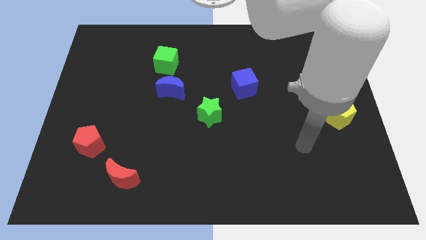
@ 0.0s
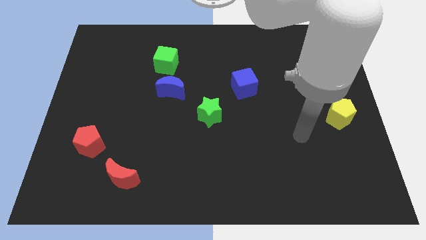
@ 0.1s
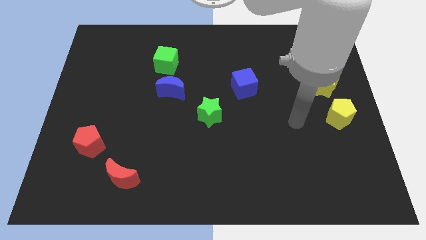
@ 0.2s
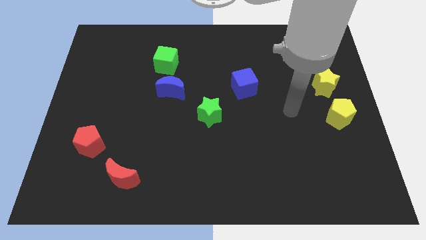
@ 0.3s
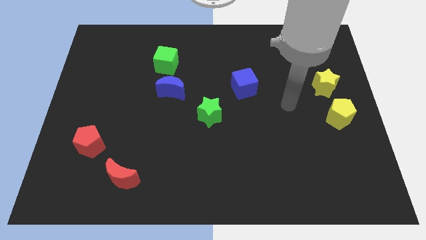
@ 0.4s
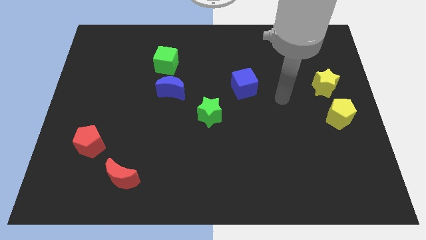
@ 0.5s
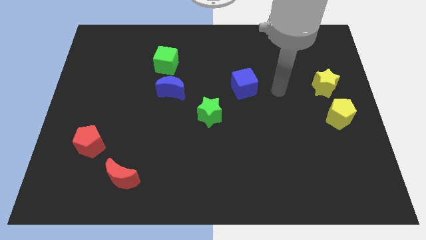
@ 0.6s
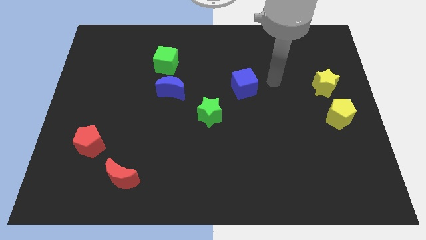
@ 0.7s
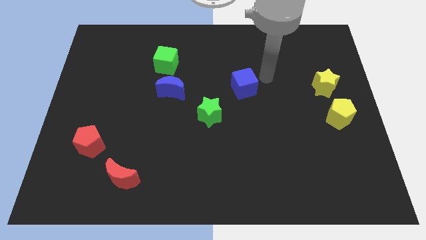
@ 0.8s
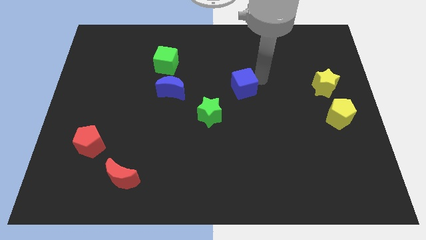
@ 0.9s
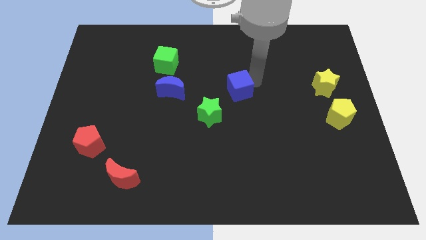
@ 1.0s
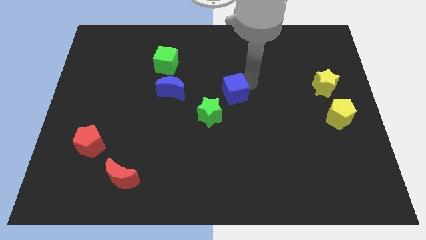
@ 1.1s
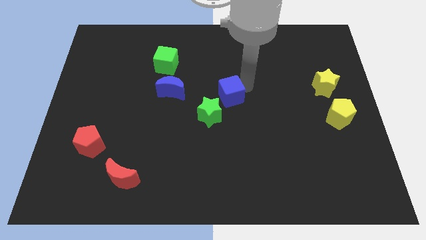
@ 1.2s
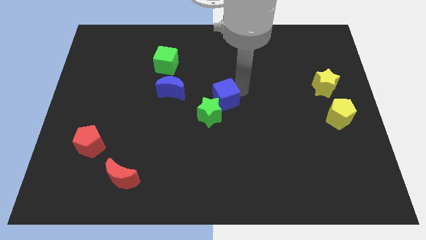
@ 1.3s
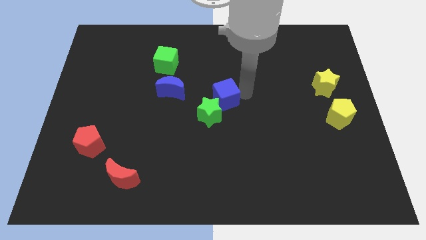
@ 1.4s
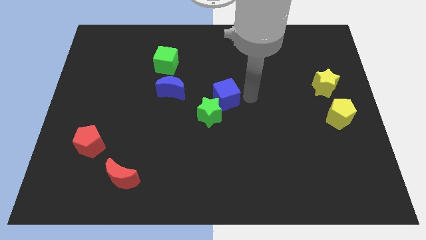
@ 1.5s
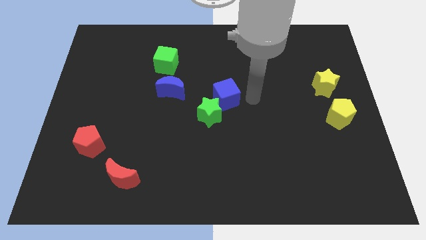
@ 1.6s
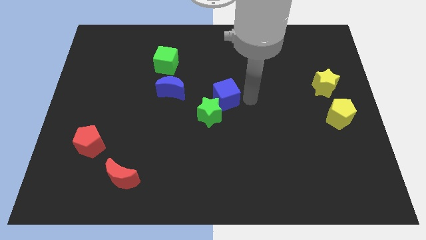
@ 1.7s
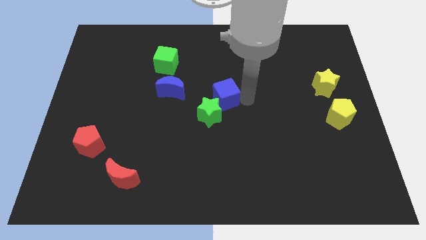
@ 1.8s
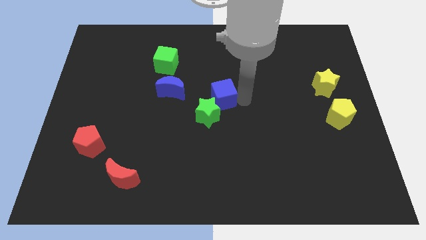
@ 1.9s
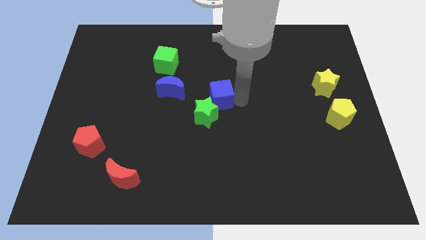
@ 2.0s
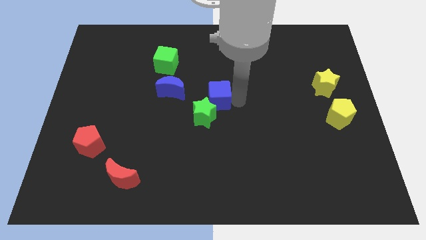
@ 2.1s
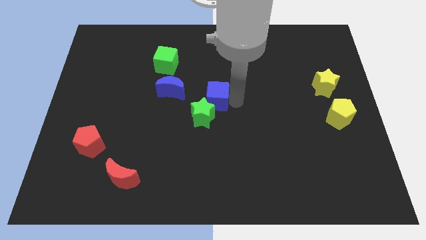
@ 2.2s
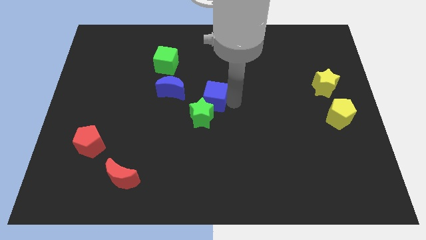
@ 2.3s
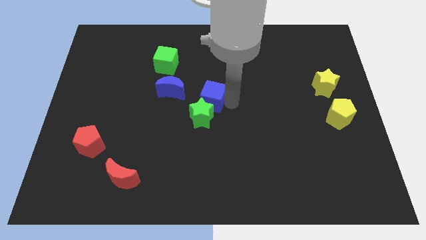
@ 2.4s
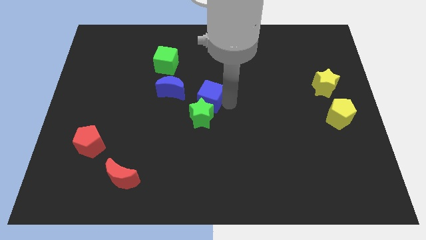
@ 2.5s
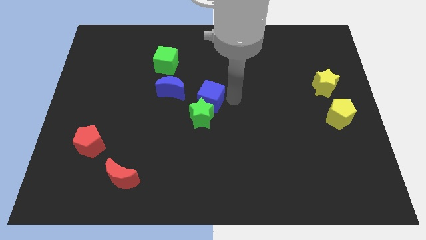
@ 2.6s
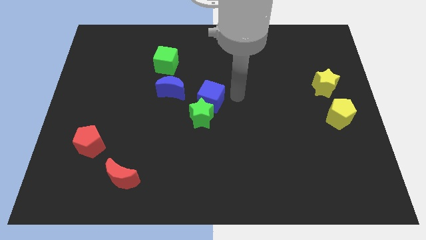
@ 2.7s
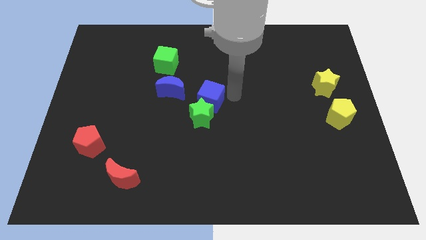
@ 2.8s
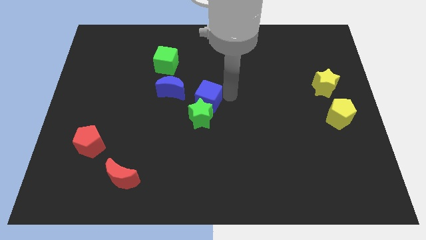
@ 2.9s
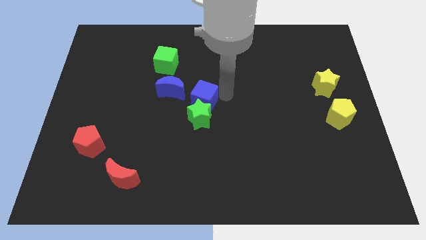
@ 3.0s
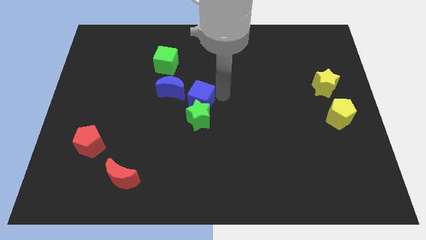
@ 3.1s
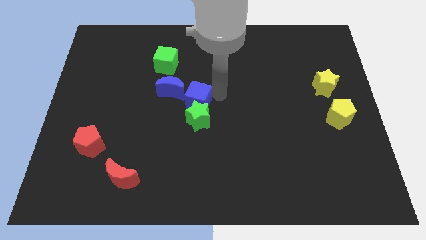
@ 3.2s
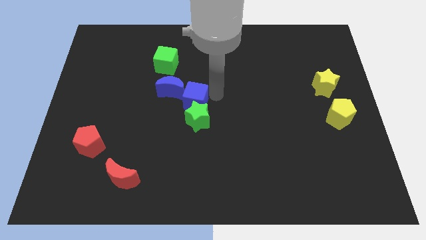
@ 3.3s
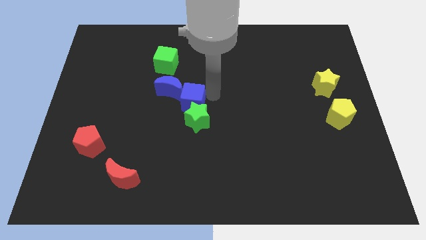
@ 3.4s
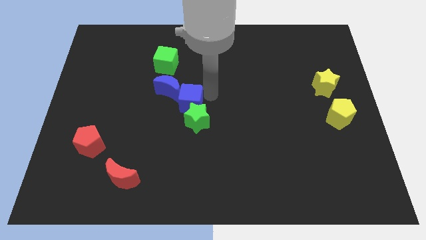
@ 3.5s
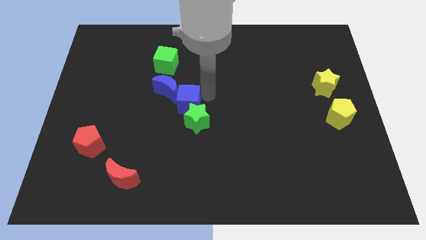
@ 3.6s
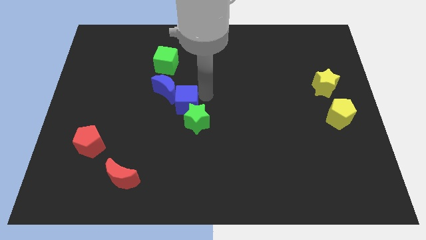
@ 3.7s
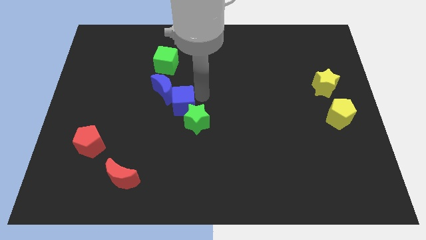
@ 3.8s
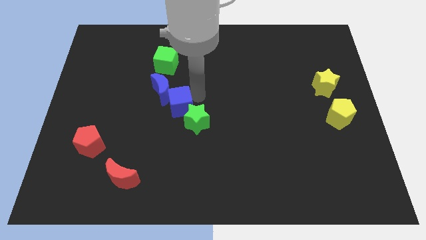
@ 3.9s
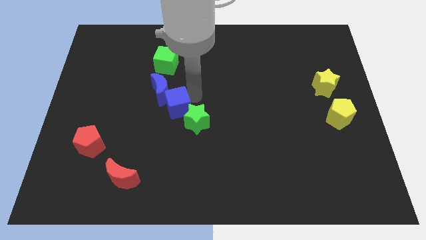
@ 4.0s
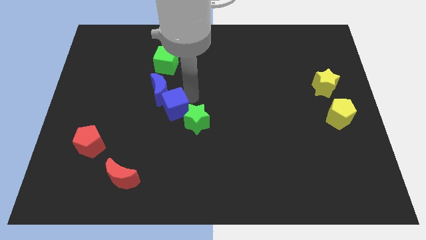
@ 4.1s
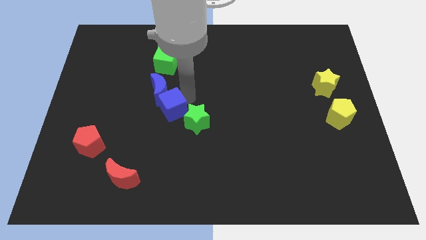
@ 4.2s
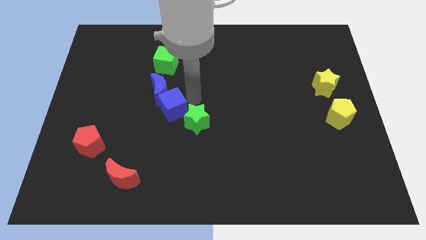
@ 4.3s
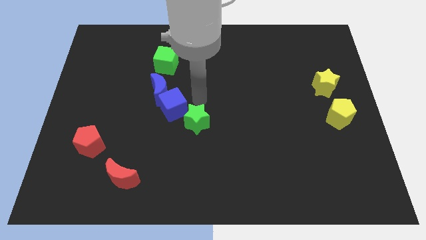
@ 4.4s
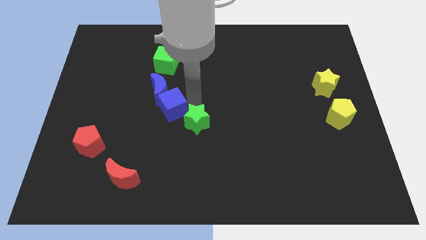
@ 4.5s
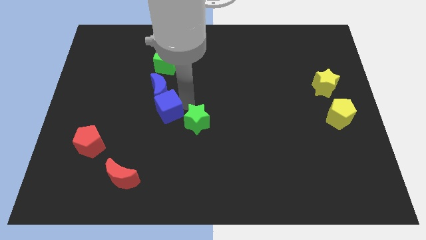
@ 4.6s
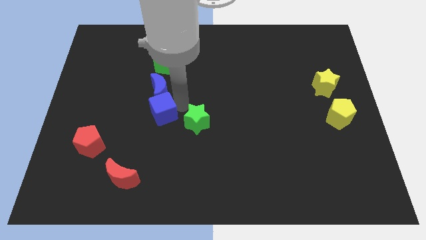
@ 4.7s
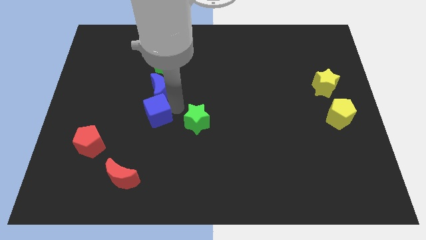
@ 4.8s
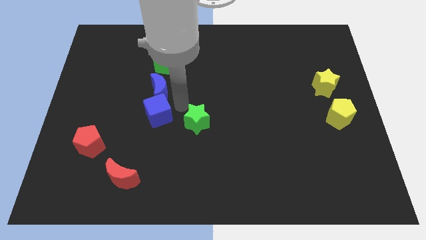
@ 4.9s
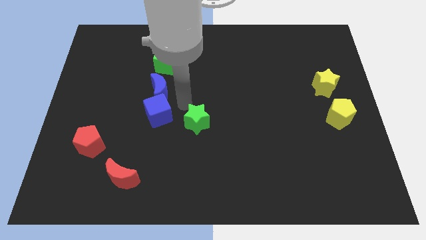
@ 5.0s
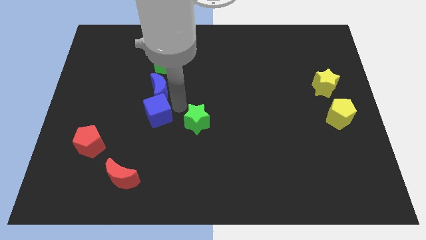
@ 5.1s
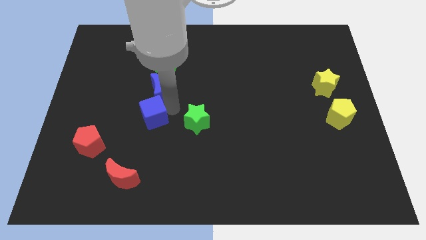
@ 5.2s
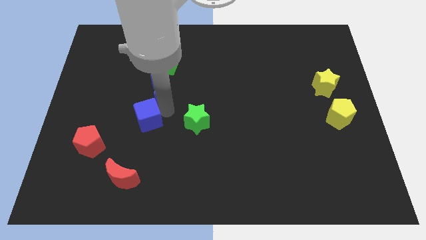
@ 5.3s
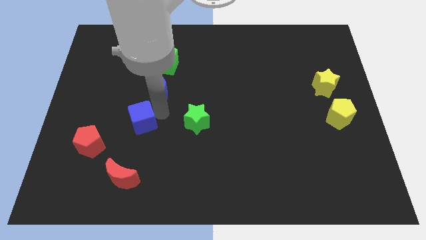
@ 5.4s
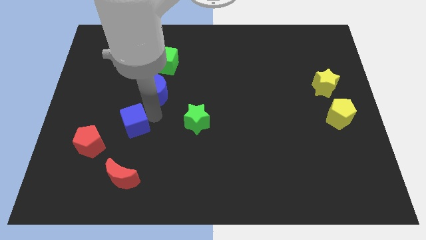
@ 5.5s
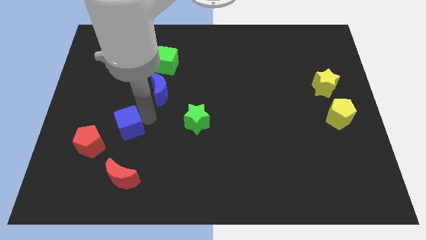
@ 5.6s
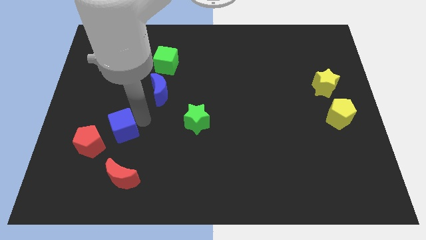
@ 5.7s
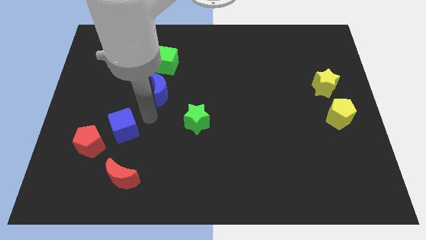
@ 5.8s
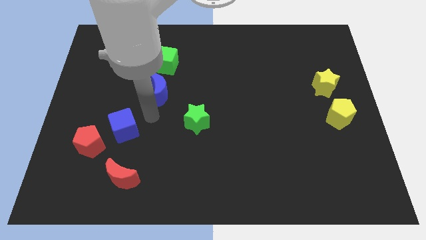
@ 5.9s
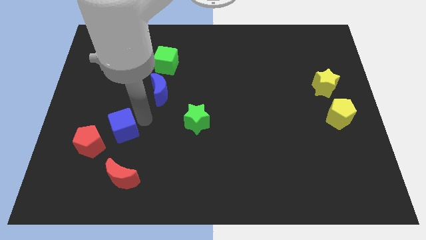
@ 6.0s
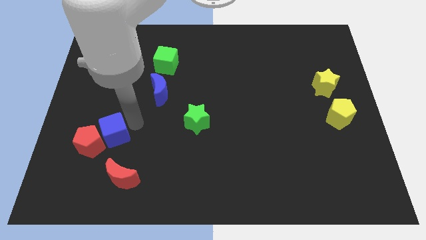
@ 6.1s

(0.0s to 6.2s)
slide the blue cube to the red pentagon

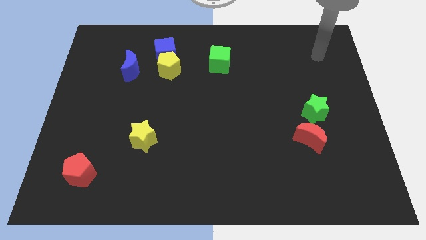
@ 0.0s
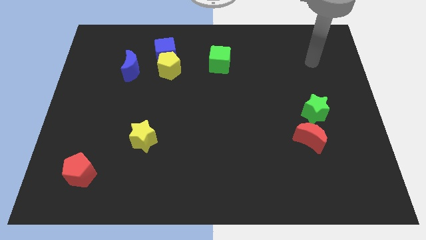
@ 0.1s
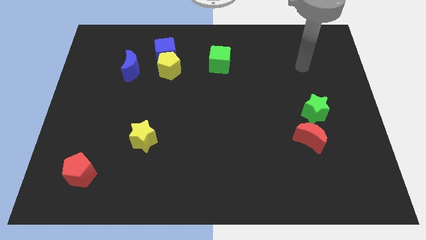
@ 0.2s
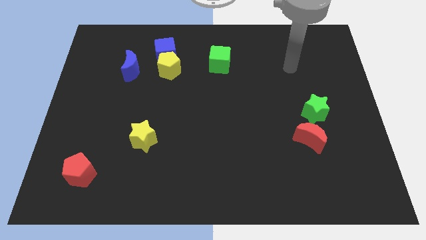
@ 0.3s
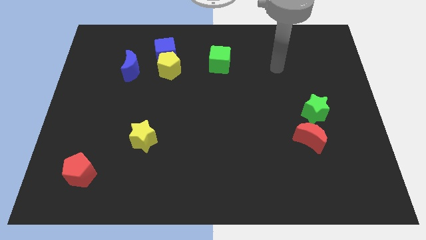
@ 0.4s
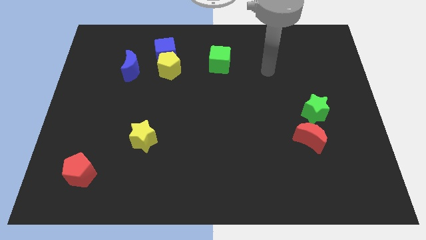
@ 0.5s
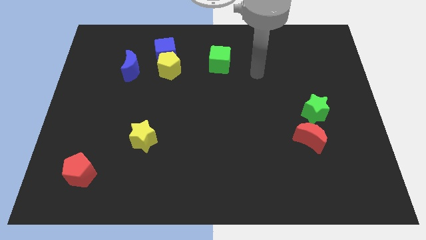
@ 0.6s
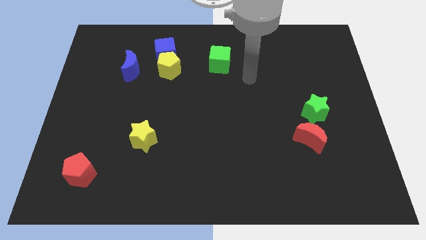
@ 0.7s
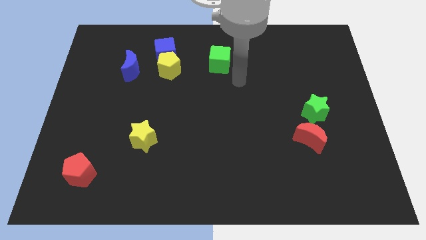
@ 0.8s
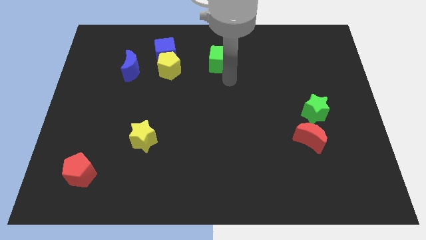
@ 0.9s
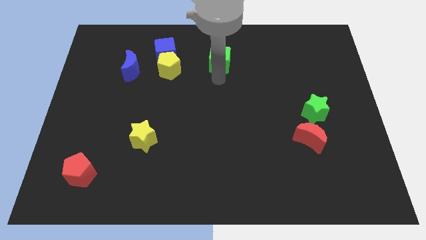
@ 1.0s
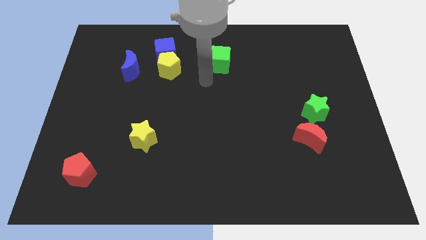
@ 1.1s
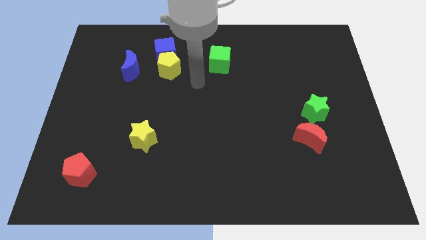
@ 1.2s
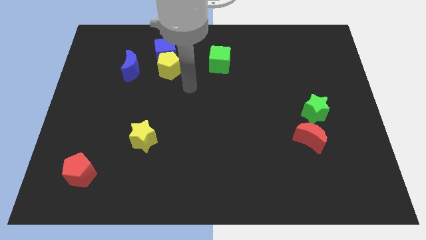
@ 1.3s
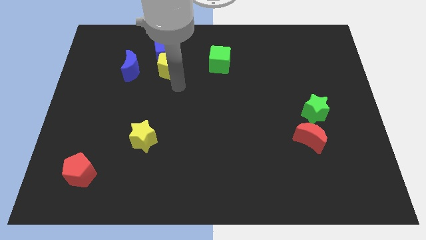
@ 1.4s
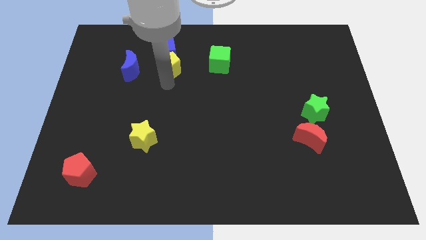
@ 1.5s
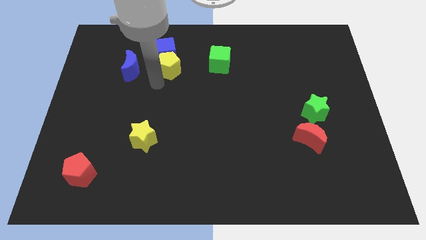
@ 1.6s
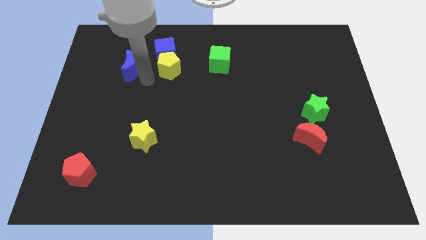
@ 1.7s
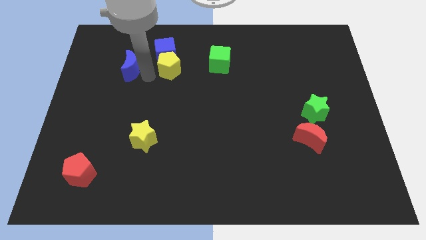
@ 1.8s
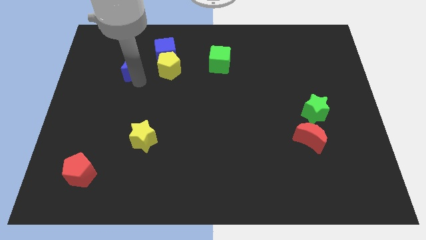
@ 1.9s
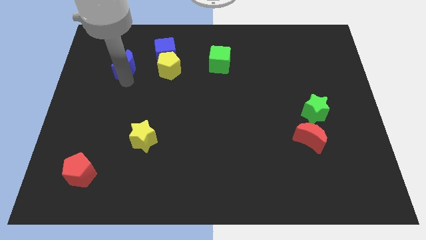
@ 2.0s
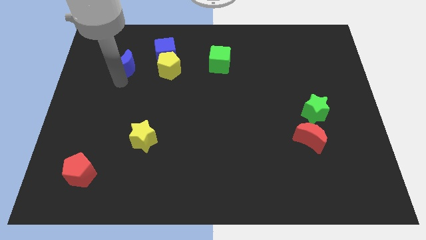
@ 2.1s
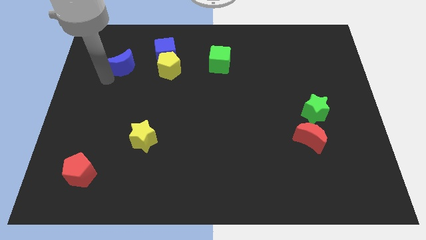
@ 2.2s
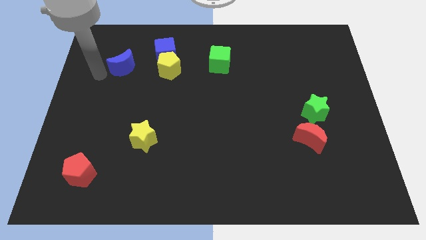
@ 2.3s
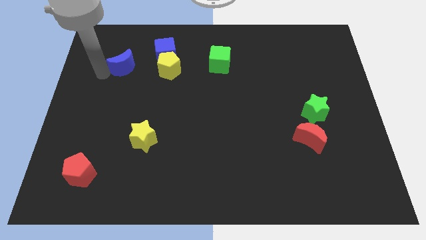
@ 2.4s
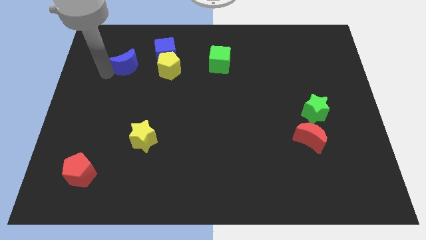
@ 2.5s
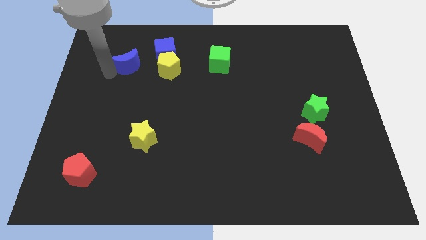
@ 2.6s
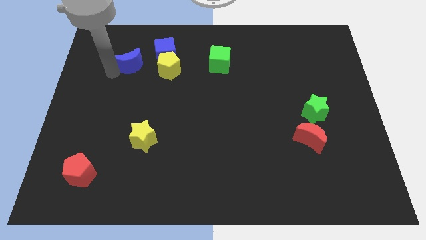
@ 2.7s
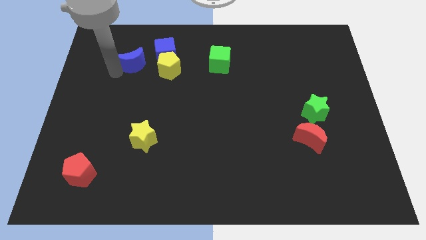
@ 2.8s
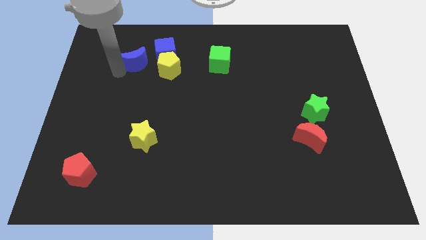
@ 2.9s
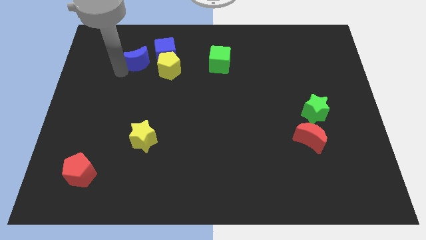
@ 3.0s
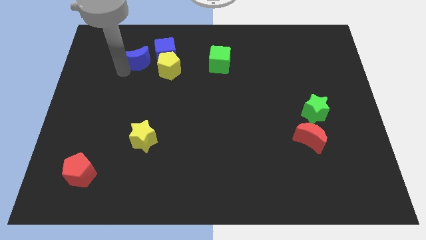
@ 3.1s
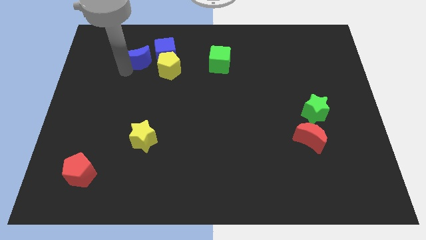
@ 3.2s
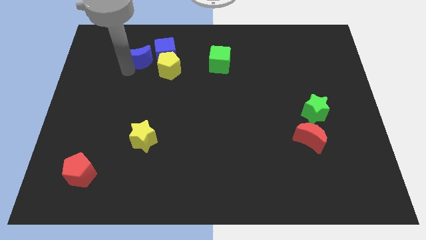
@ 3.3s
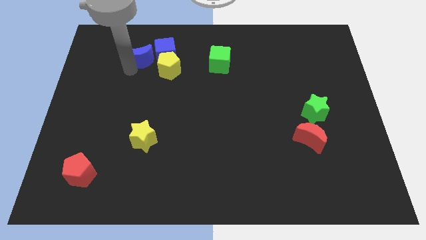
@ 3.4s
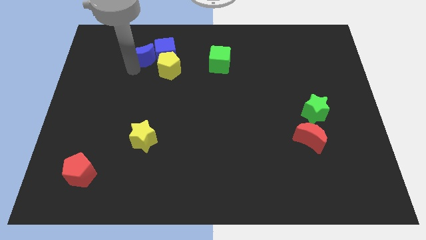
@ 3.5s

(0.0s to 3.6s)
put the blue moon close to the blue cube
